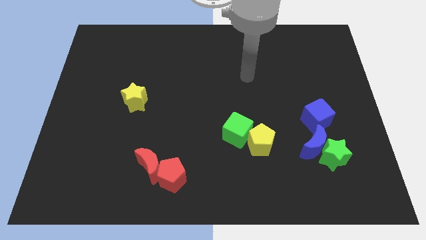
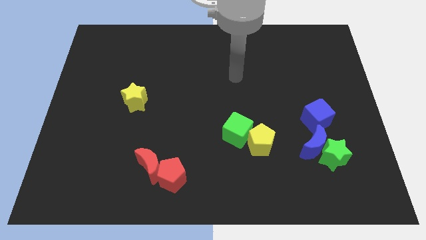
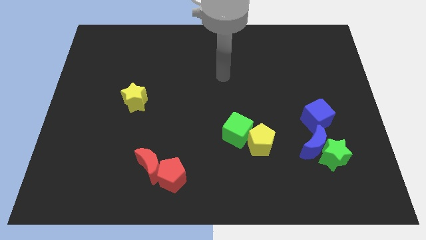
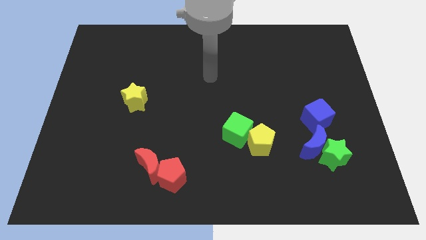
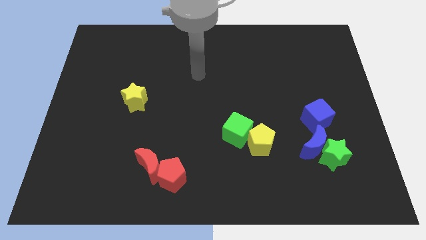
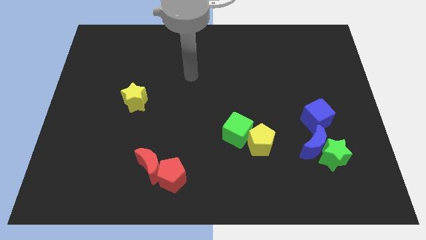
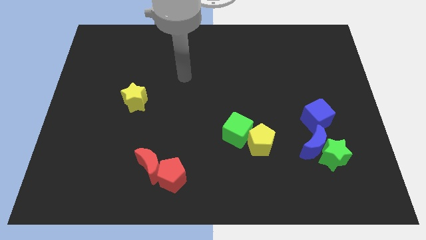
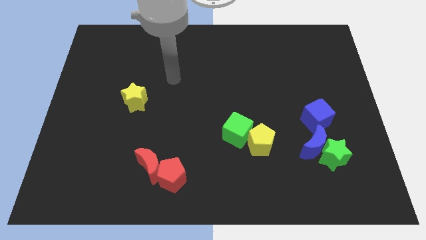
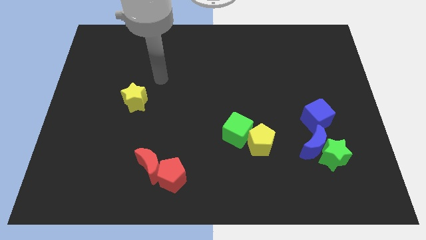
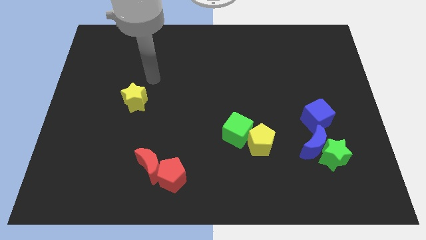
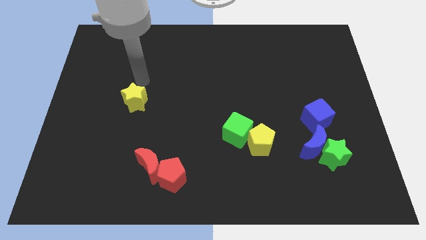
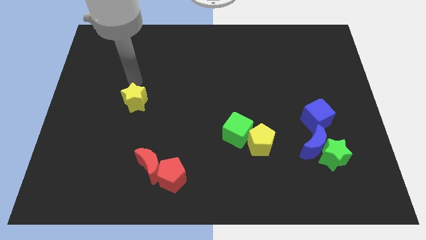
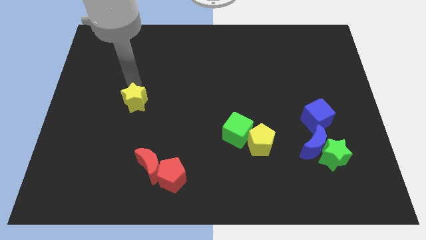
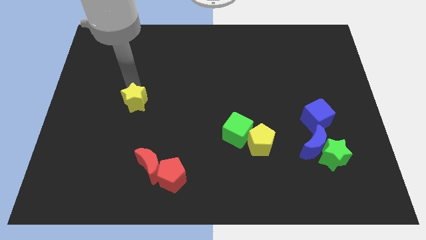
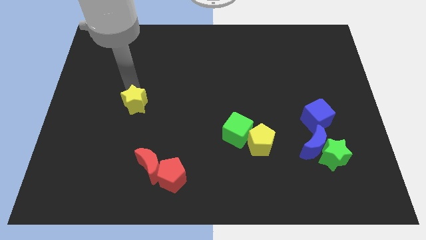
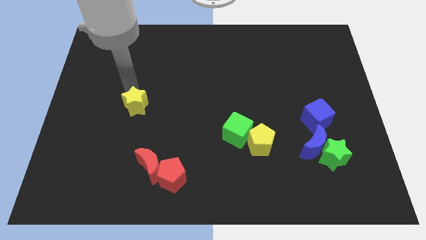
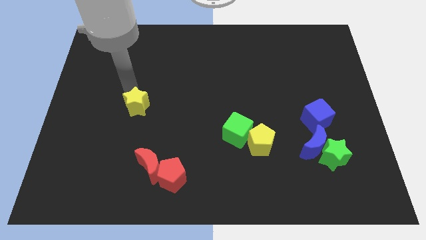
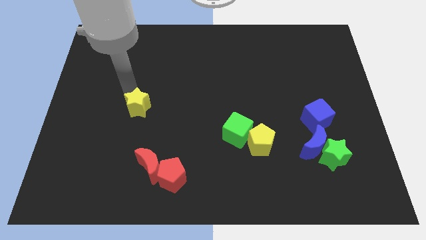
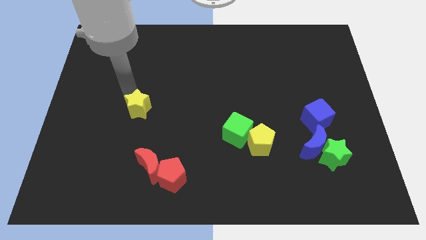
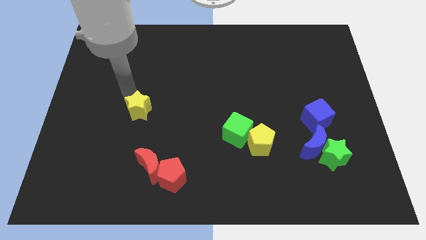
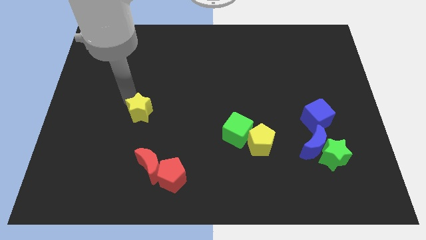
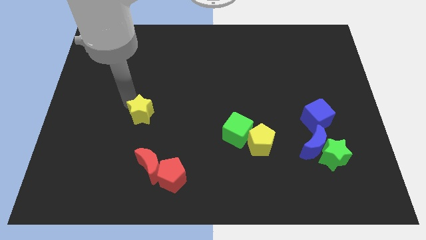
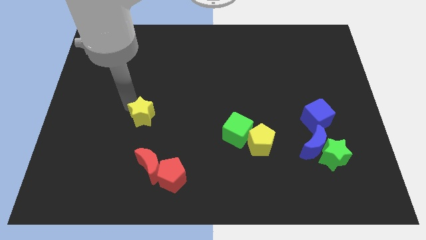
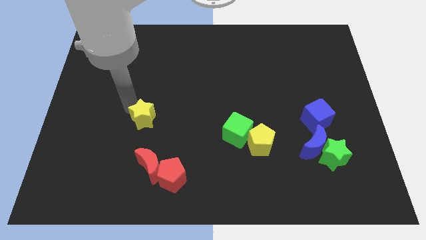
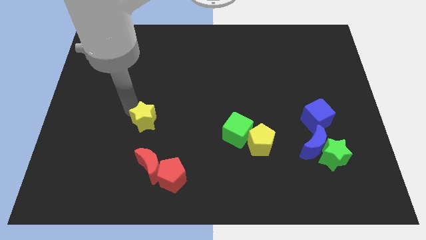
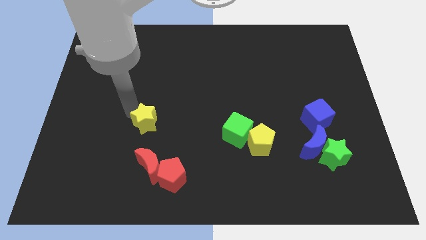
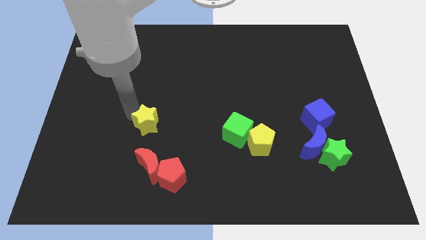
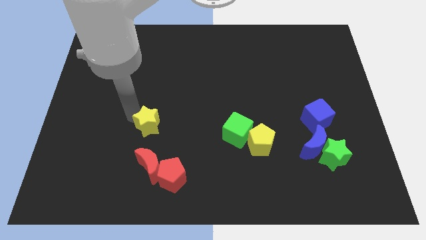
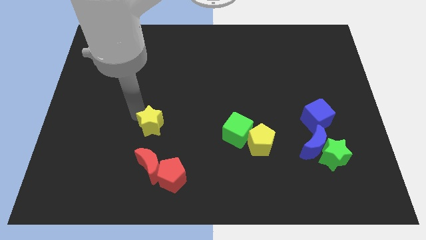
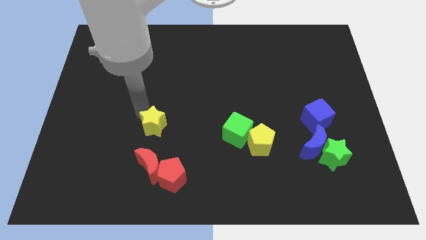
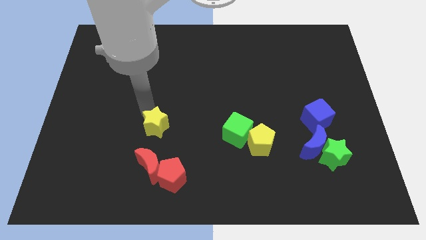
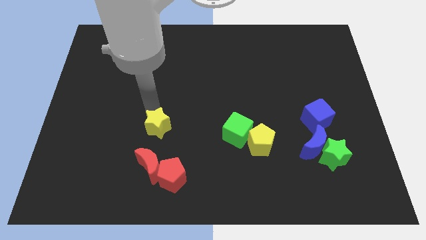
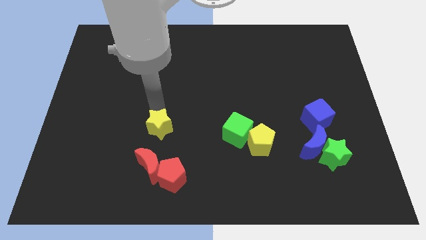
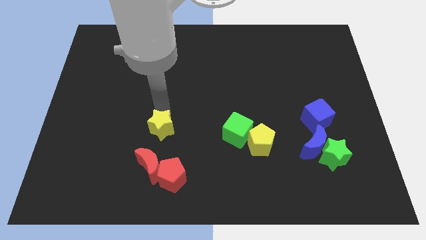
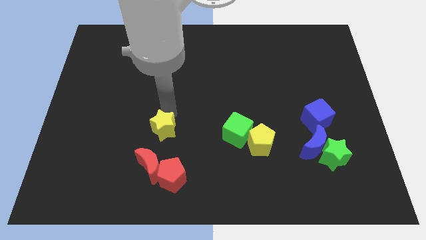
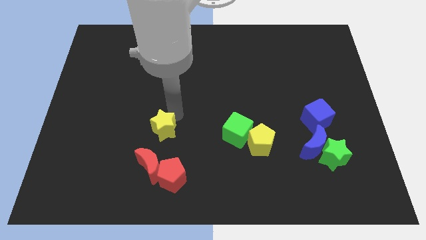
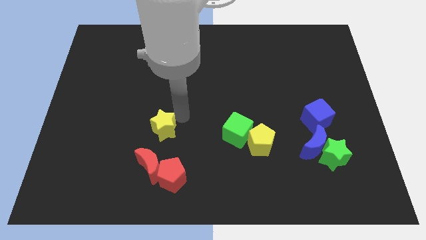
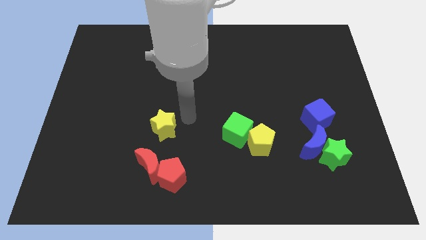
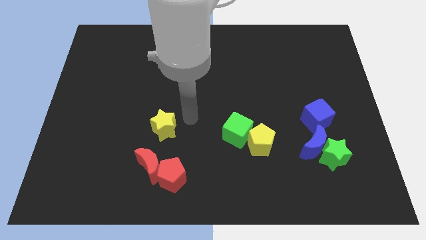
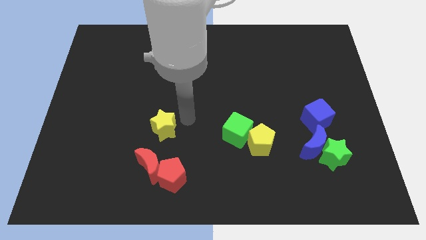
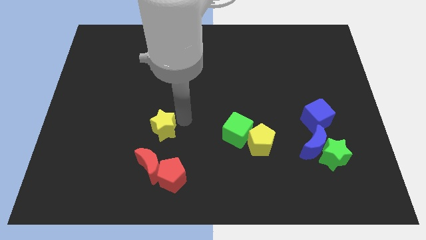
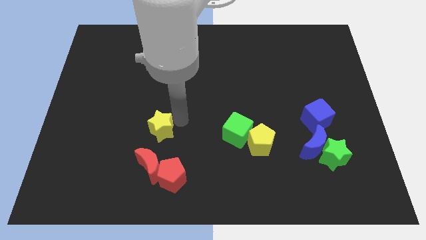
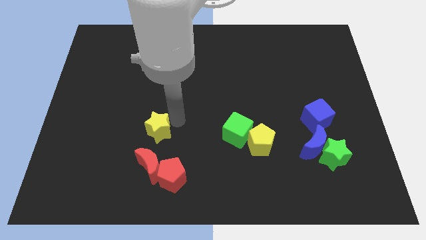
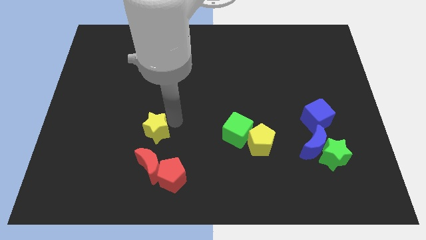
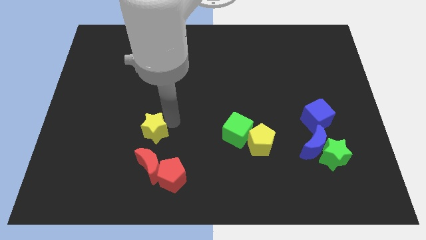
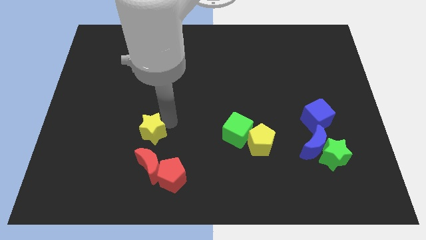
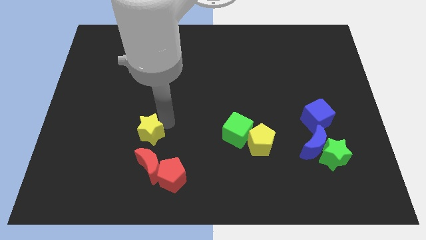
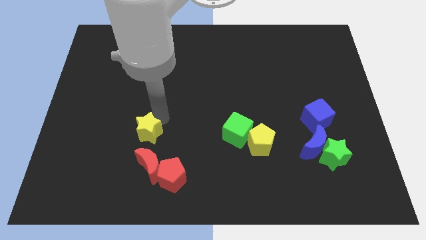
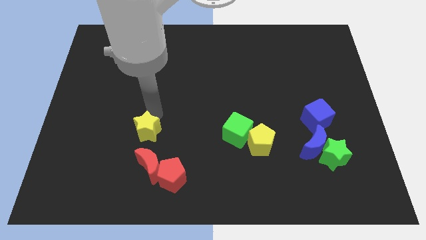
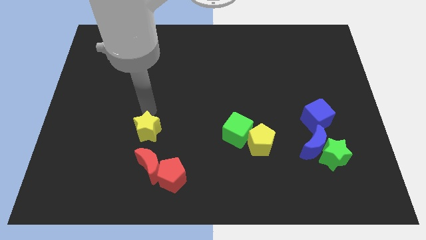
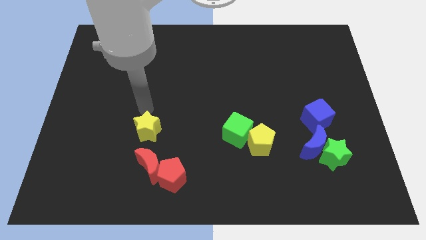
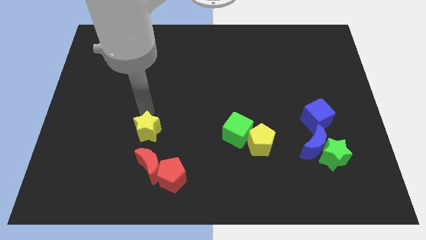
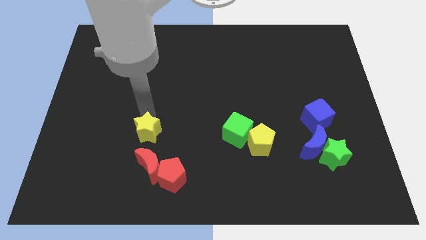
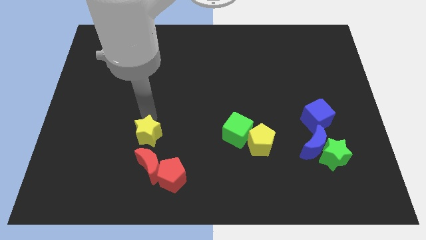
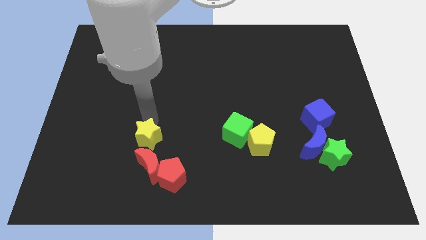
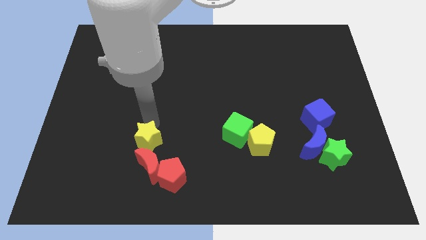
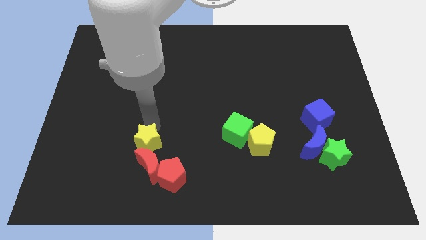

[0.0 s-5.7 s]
slide the yellow star next to the red moon
